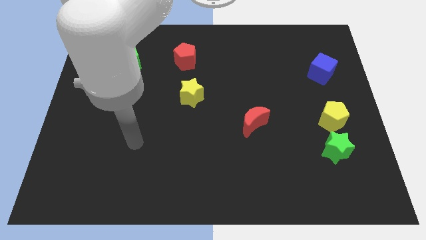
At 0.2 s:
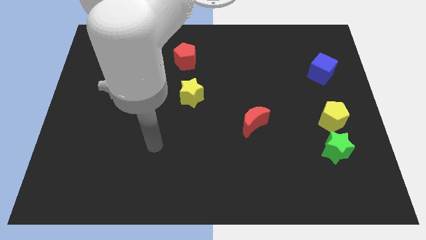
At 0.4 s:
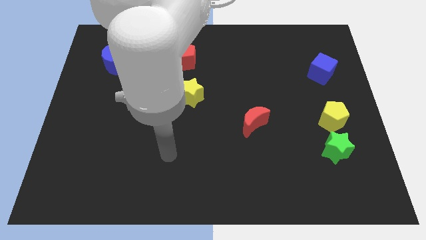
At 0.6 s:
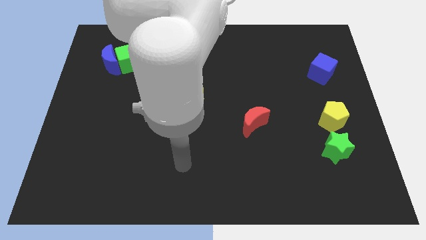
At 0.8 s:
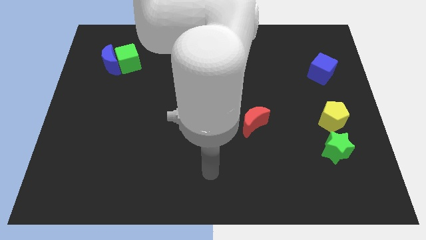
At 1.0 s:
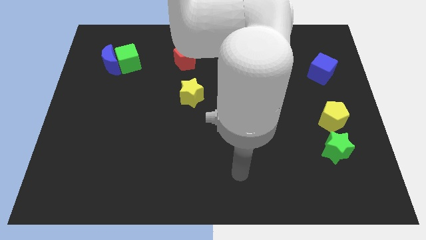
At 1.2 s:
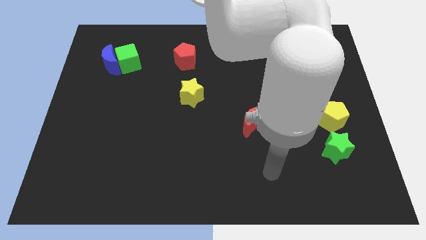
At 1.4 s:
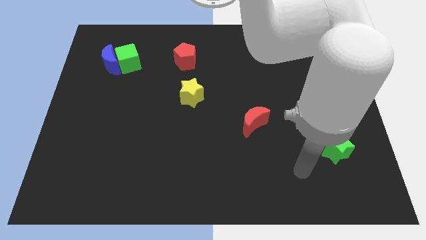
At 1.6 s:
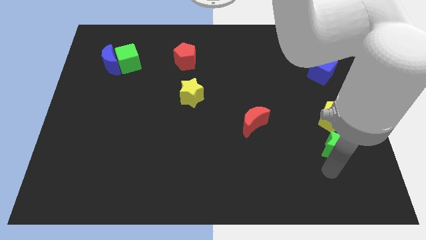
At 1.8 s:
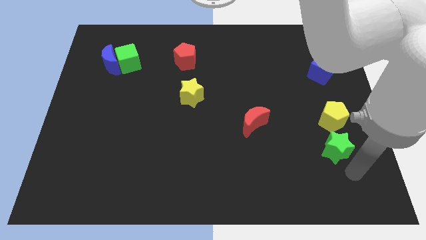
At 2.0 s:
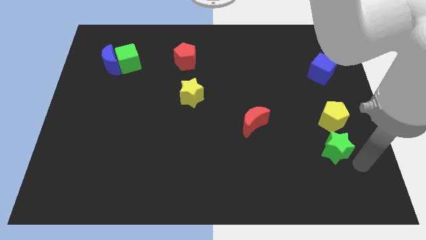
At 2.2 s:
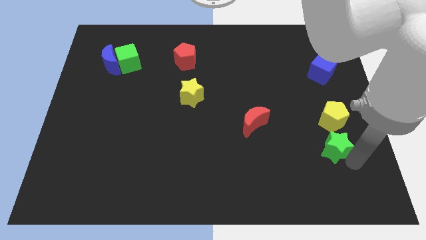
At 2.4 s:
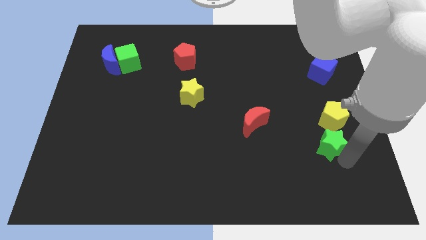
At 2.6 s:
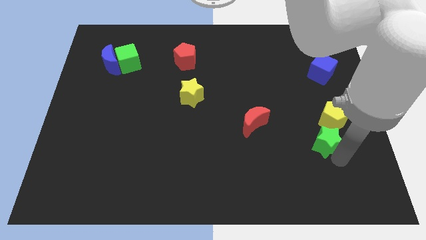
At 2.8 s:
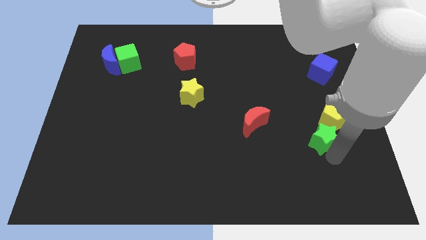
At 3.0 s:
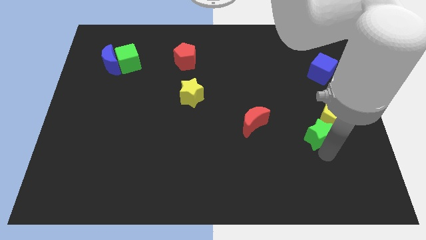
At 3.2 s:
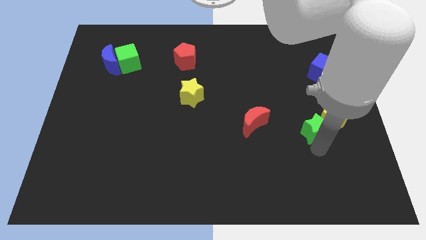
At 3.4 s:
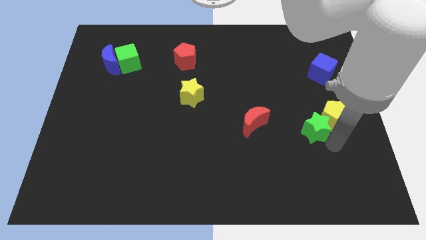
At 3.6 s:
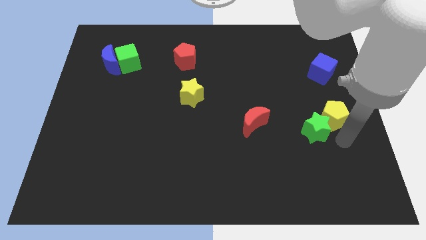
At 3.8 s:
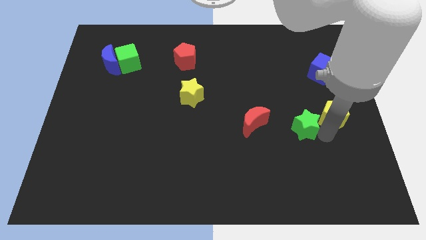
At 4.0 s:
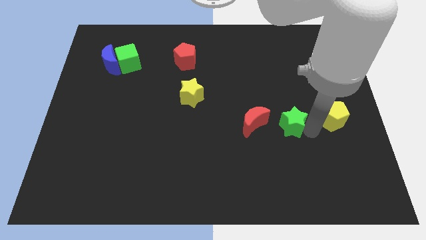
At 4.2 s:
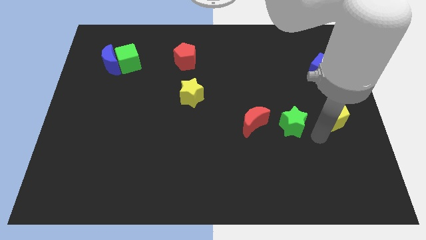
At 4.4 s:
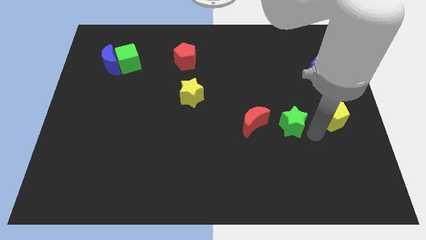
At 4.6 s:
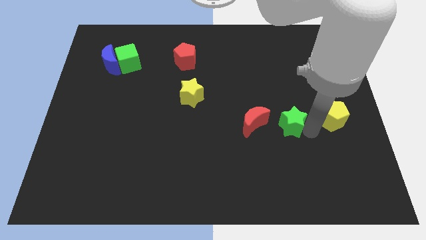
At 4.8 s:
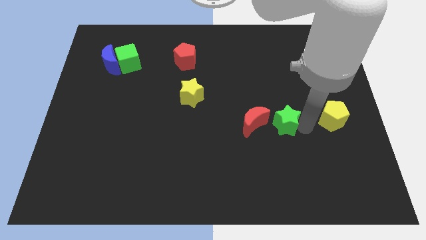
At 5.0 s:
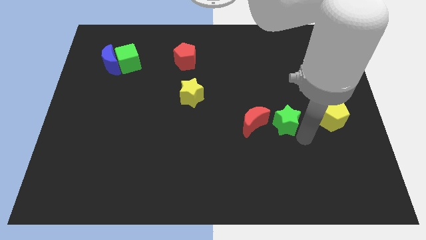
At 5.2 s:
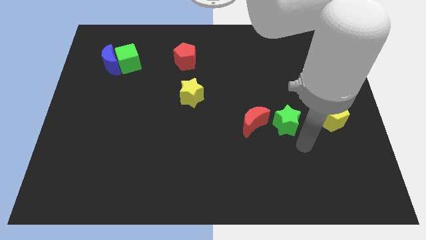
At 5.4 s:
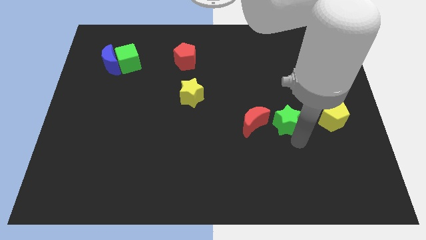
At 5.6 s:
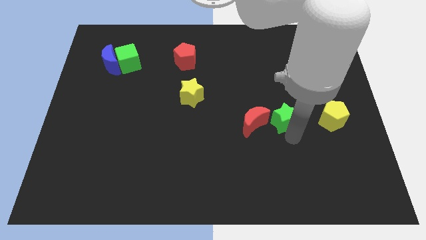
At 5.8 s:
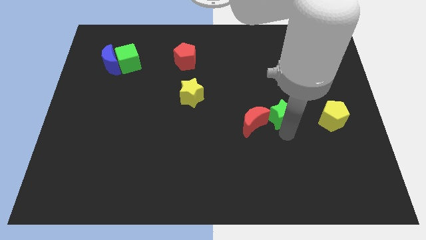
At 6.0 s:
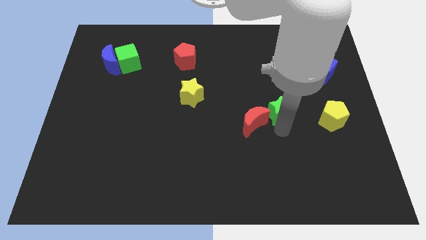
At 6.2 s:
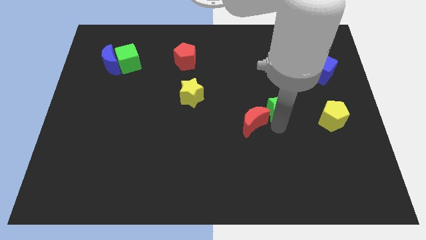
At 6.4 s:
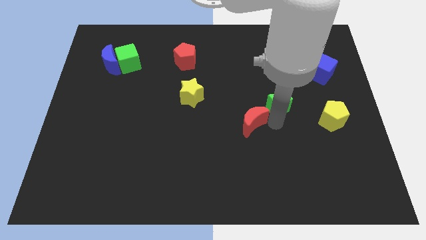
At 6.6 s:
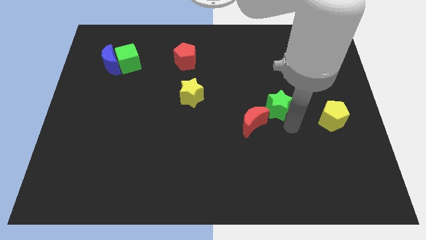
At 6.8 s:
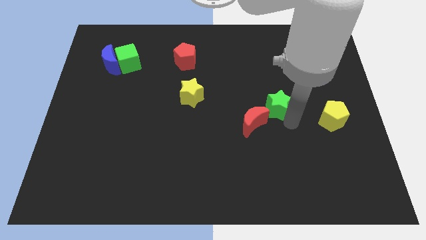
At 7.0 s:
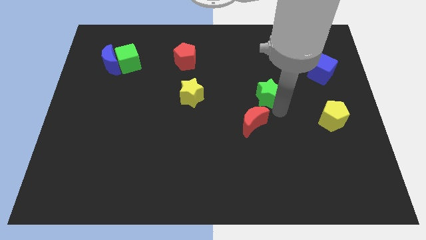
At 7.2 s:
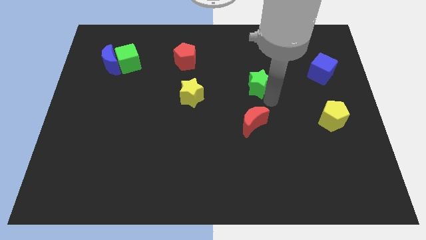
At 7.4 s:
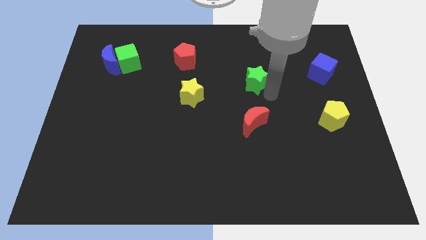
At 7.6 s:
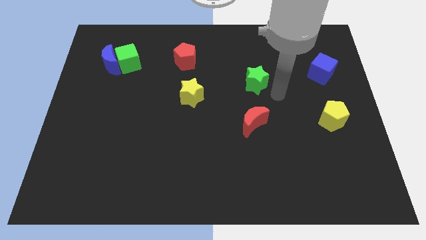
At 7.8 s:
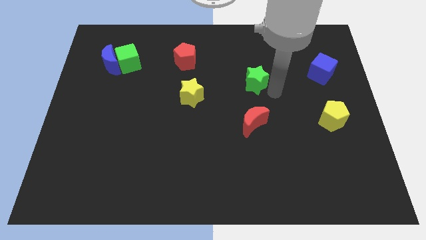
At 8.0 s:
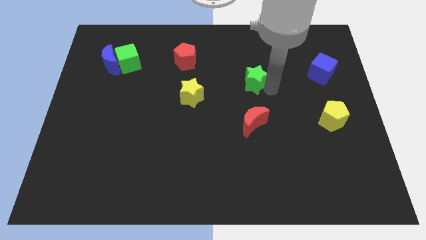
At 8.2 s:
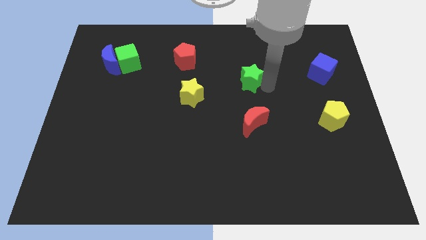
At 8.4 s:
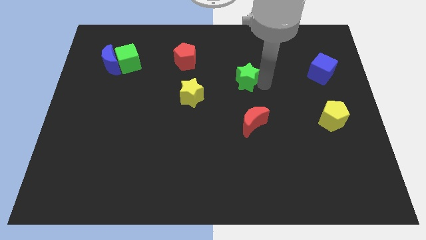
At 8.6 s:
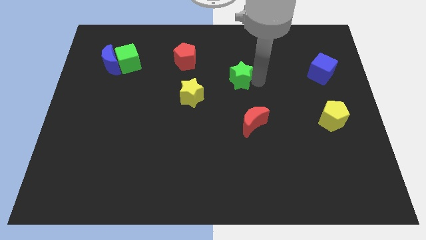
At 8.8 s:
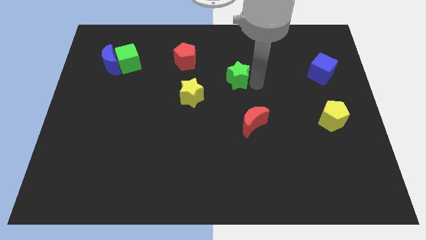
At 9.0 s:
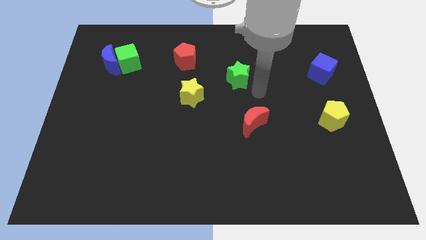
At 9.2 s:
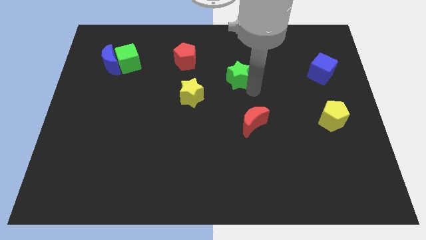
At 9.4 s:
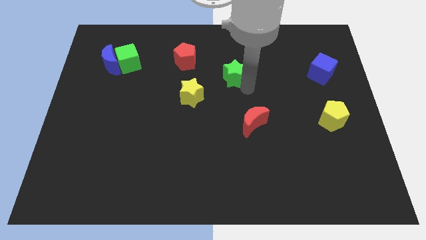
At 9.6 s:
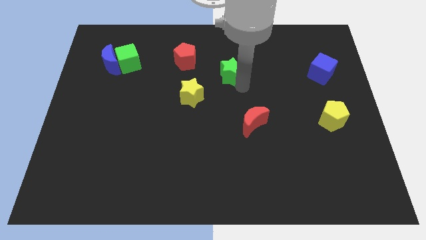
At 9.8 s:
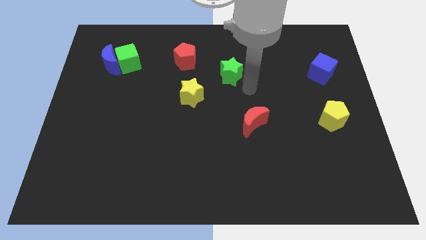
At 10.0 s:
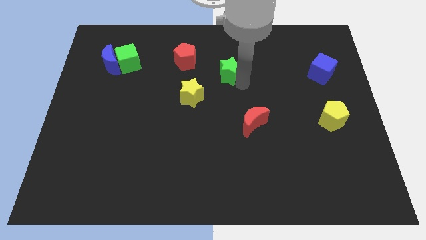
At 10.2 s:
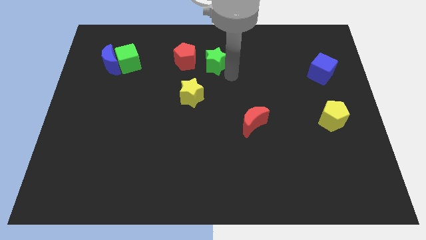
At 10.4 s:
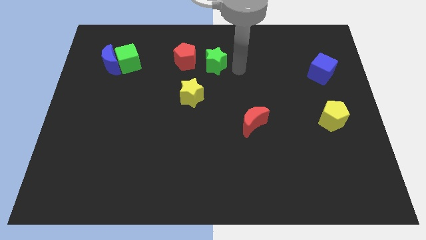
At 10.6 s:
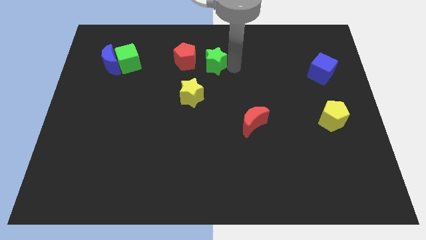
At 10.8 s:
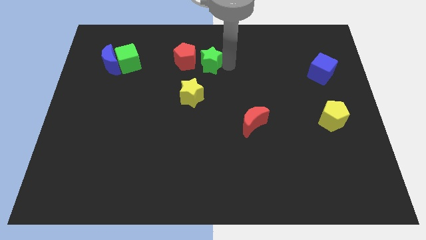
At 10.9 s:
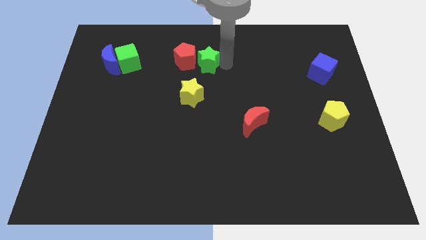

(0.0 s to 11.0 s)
move the green star towards the red pentagon
